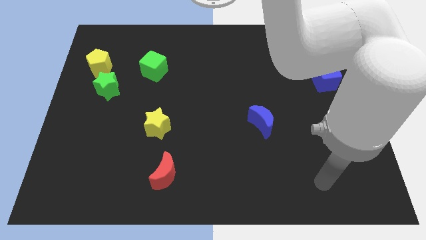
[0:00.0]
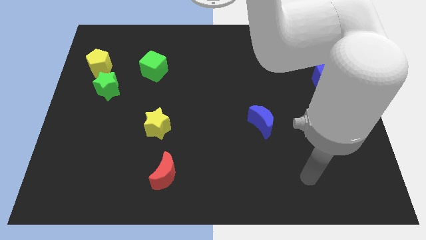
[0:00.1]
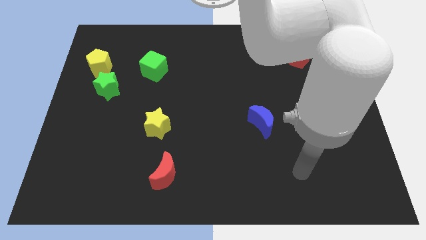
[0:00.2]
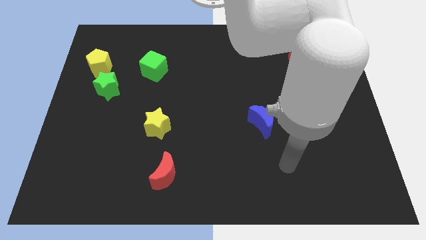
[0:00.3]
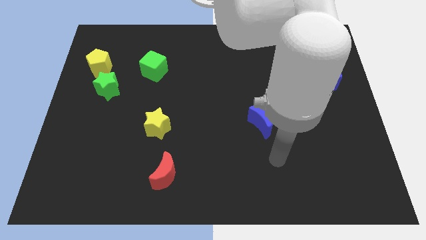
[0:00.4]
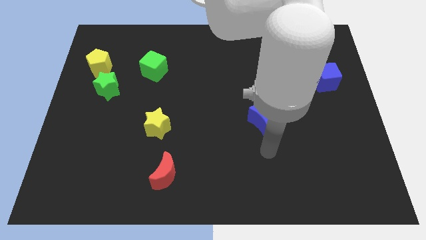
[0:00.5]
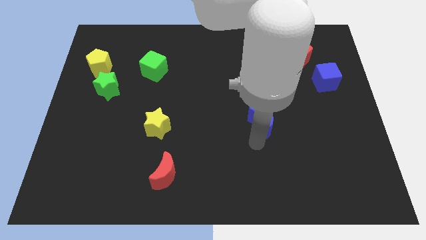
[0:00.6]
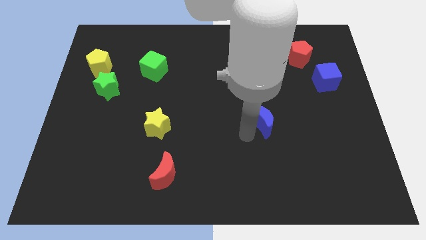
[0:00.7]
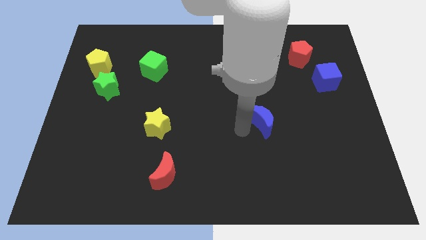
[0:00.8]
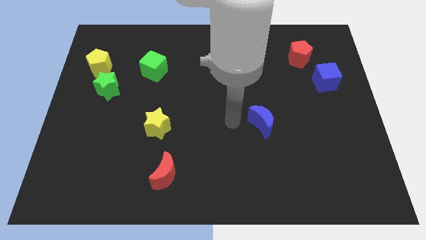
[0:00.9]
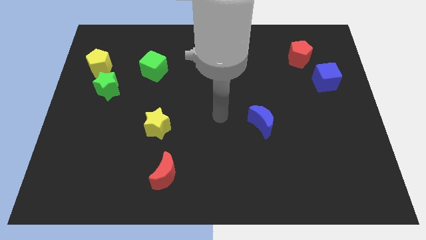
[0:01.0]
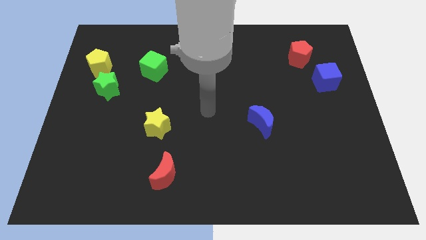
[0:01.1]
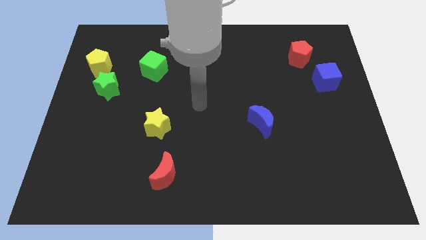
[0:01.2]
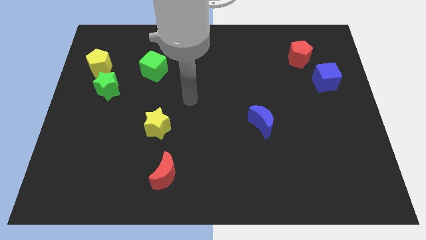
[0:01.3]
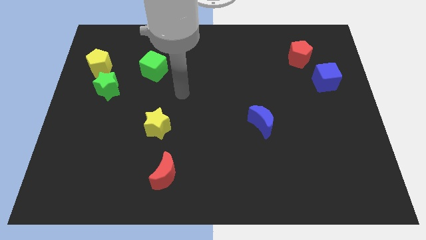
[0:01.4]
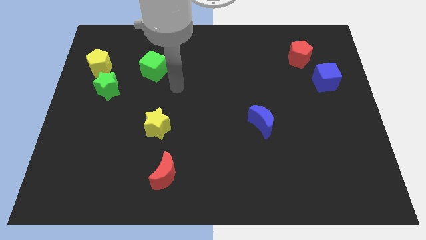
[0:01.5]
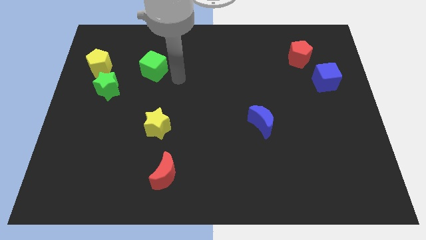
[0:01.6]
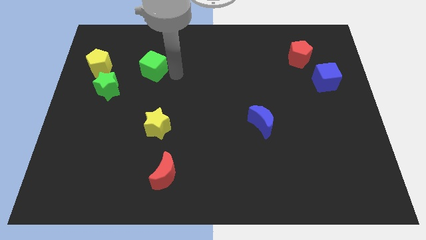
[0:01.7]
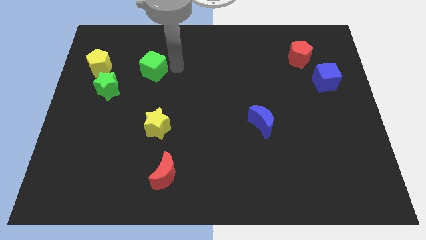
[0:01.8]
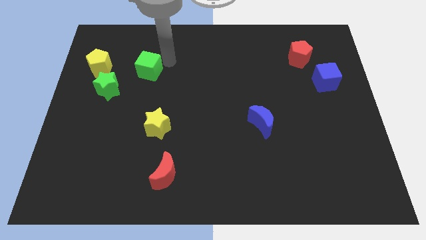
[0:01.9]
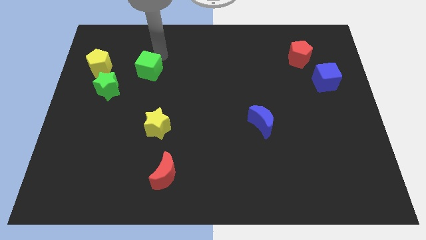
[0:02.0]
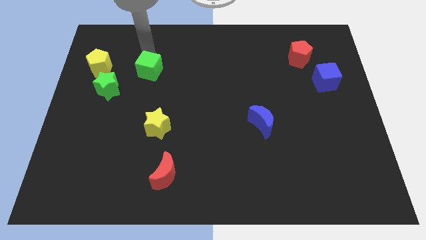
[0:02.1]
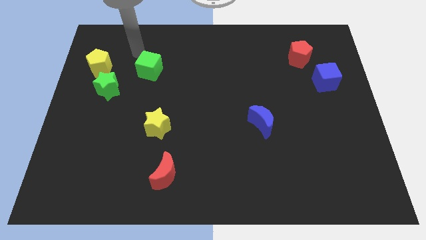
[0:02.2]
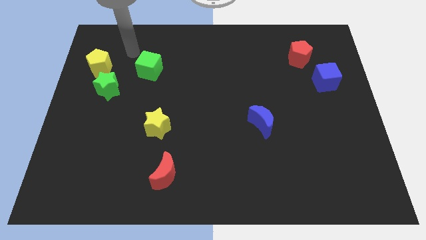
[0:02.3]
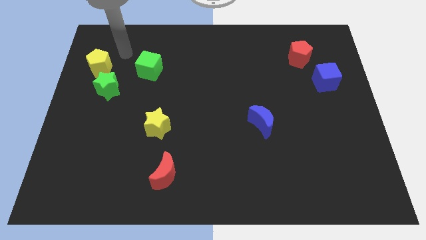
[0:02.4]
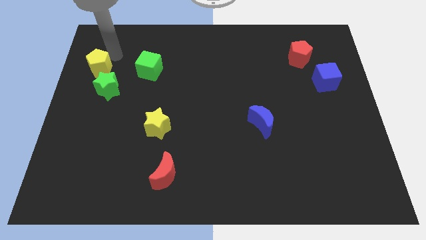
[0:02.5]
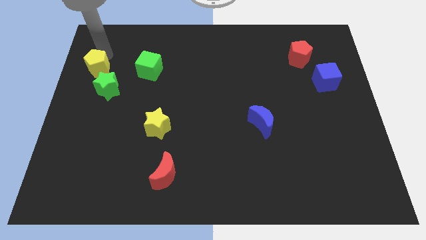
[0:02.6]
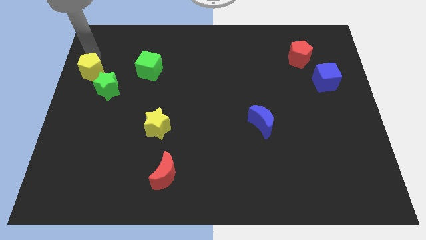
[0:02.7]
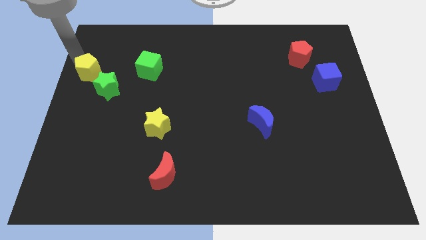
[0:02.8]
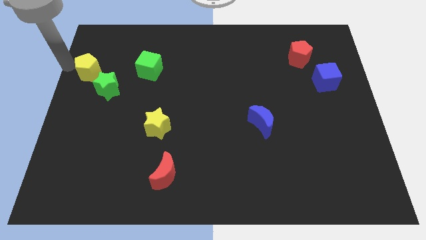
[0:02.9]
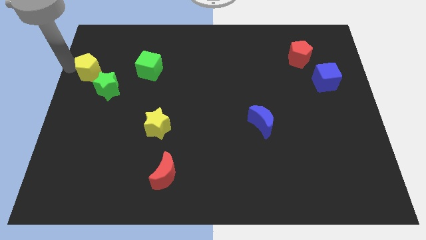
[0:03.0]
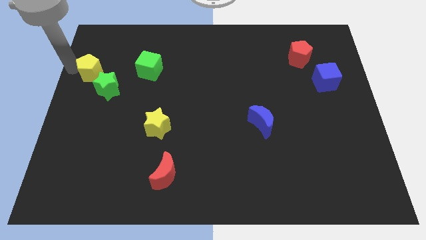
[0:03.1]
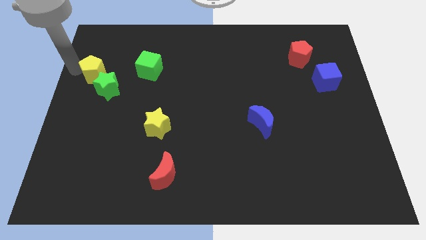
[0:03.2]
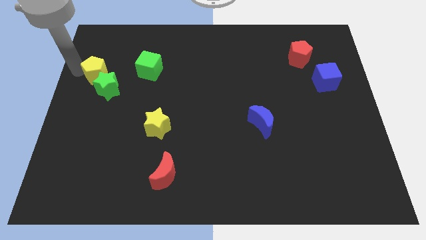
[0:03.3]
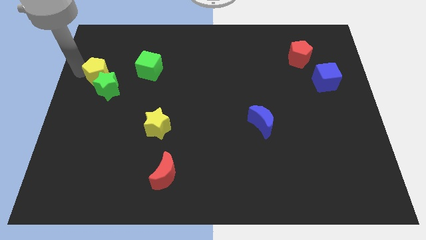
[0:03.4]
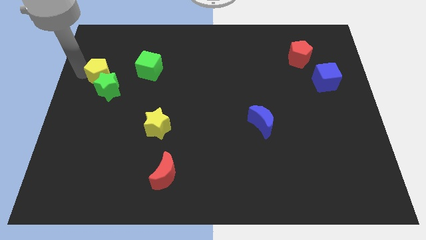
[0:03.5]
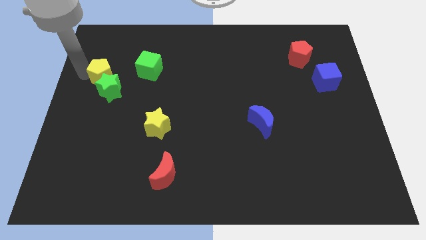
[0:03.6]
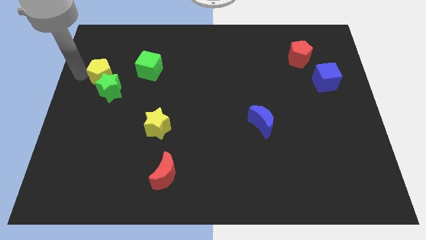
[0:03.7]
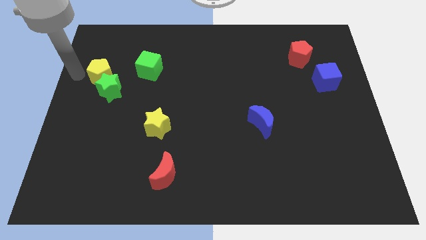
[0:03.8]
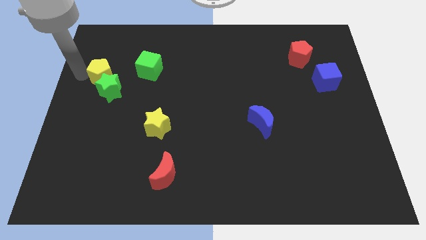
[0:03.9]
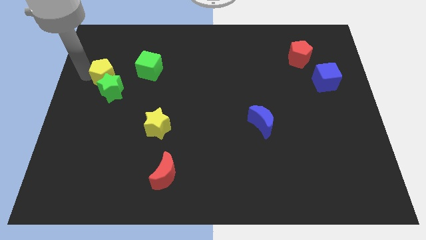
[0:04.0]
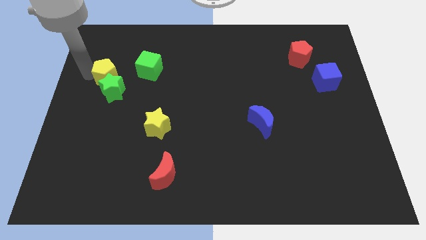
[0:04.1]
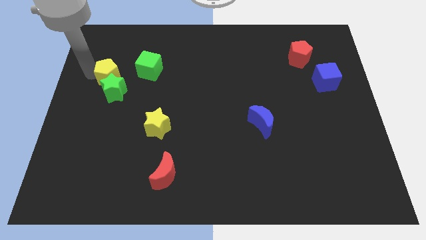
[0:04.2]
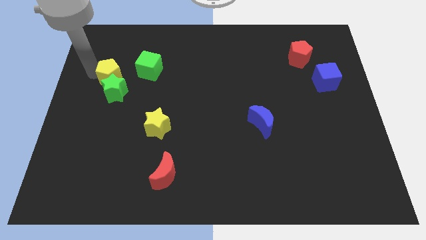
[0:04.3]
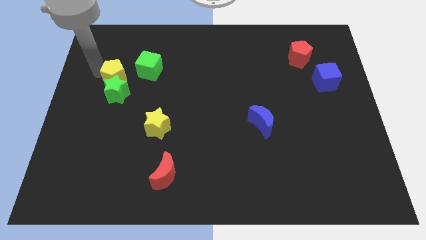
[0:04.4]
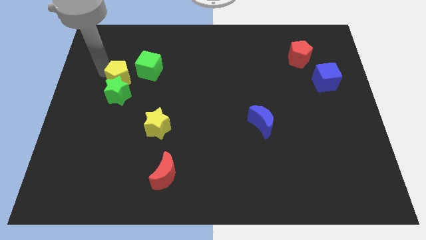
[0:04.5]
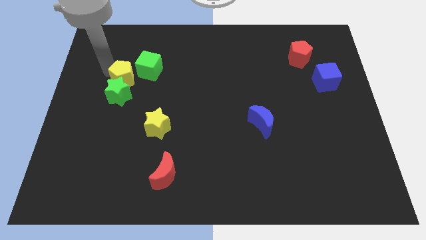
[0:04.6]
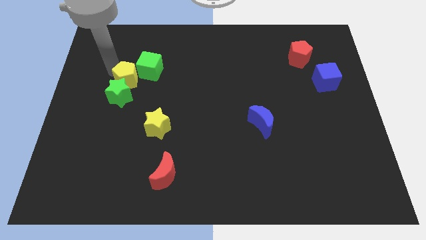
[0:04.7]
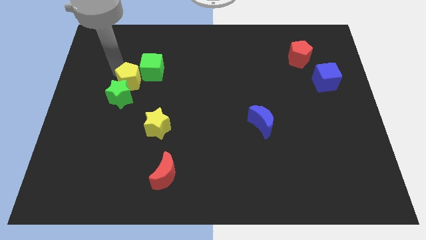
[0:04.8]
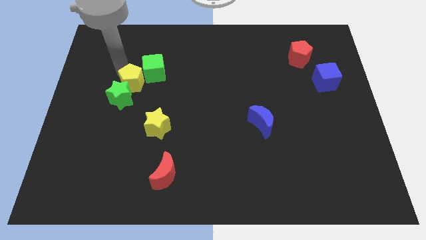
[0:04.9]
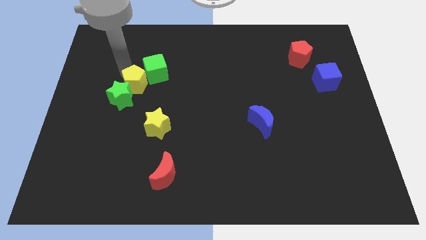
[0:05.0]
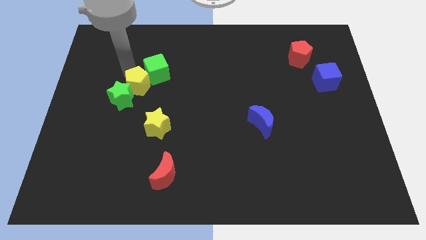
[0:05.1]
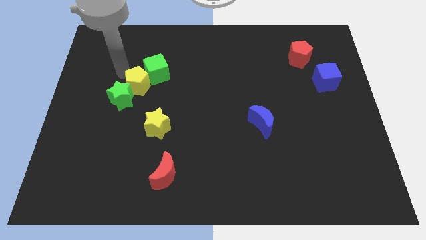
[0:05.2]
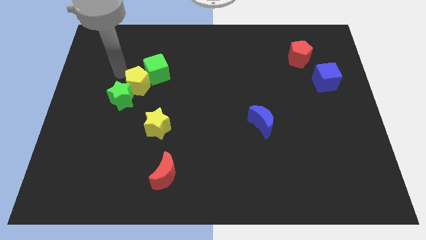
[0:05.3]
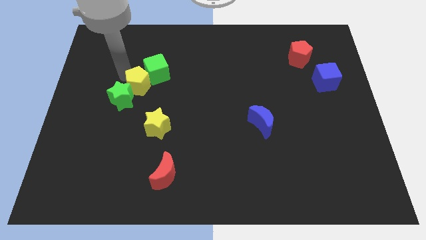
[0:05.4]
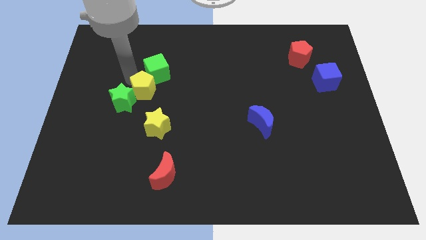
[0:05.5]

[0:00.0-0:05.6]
put the yellow pentagon to the right side of the green star

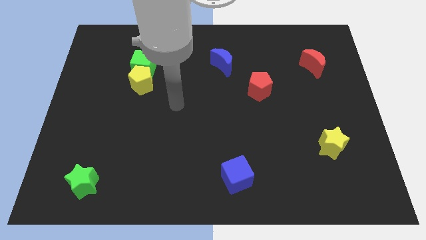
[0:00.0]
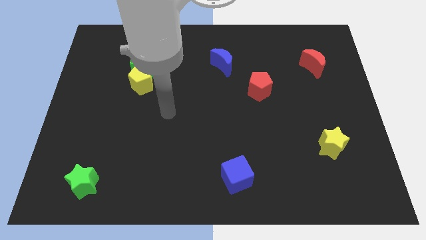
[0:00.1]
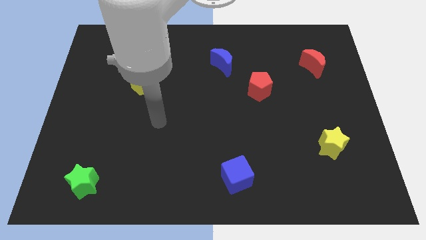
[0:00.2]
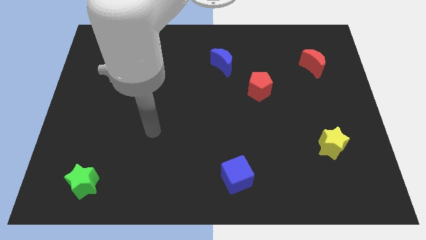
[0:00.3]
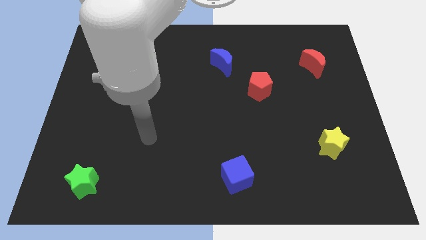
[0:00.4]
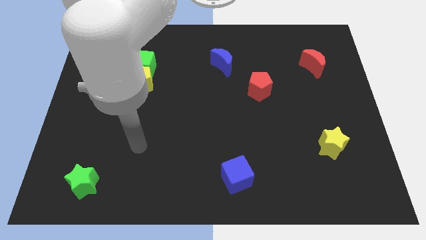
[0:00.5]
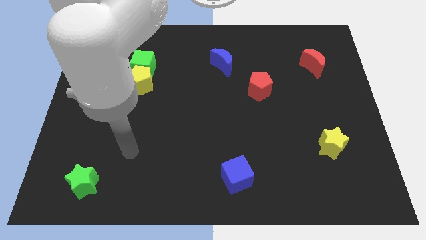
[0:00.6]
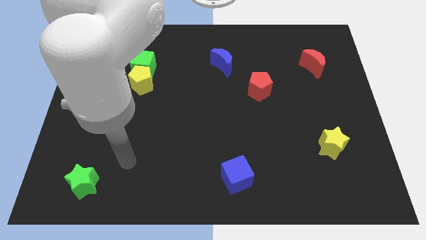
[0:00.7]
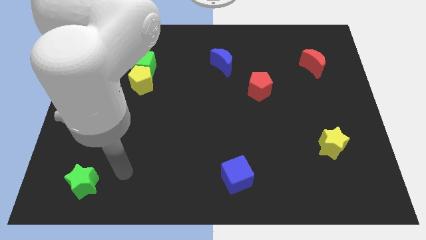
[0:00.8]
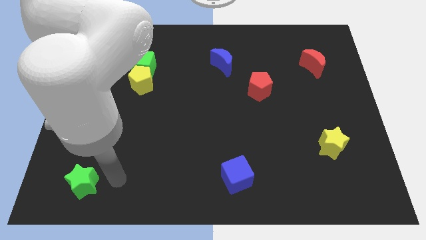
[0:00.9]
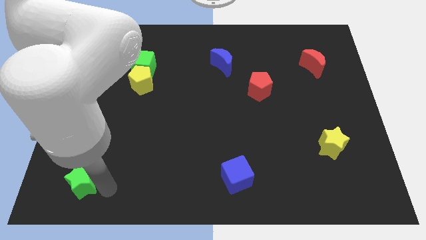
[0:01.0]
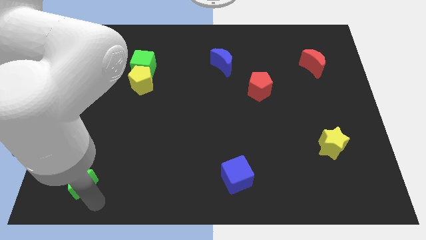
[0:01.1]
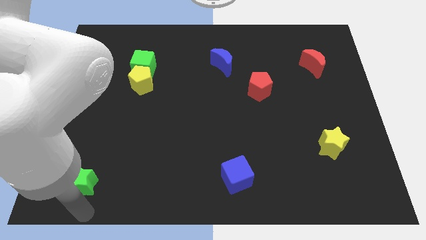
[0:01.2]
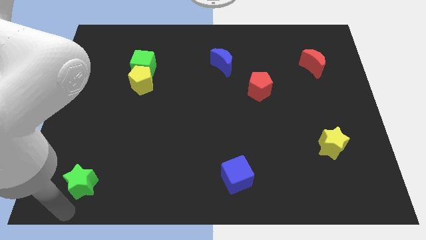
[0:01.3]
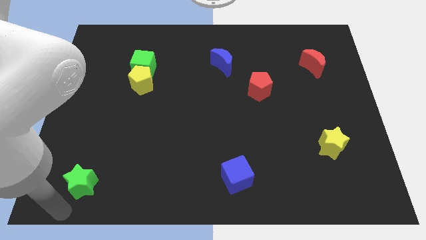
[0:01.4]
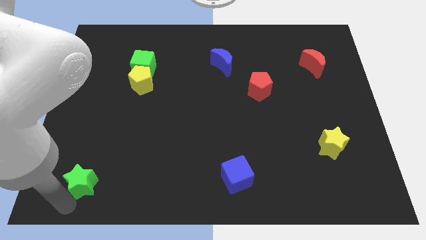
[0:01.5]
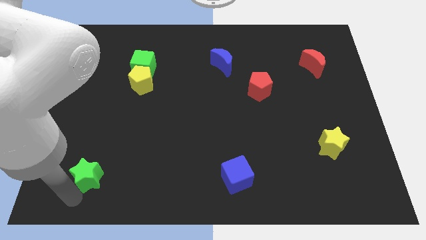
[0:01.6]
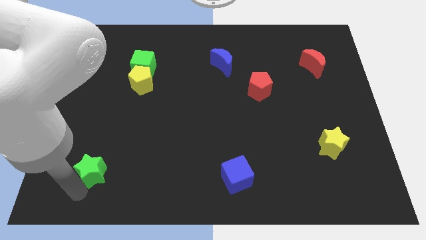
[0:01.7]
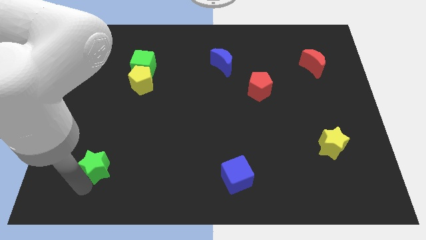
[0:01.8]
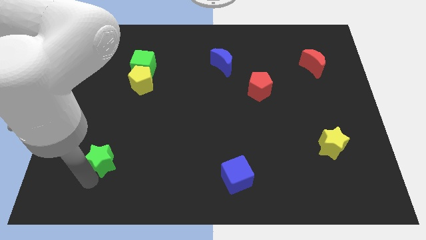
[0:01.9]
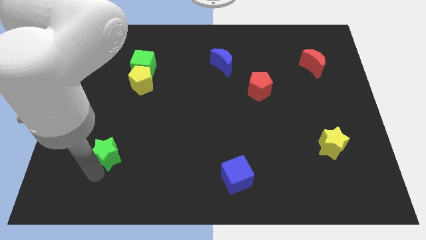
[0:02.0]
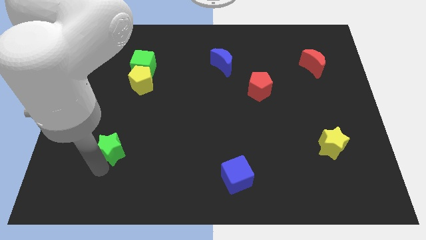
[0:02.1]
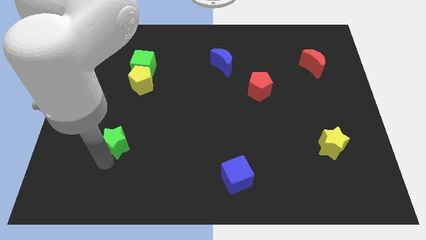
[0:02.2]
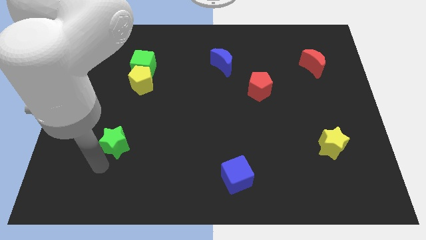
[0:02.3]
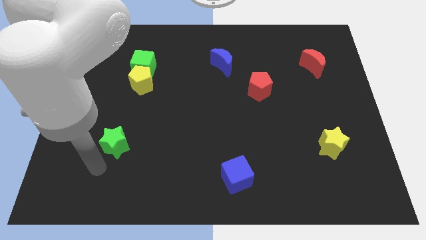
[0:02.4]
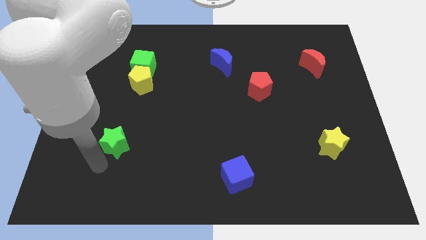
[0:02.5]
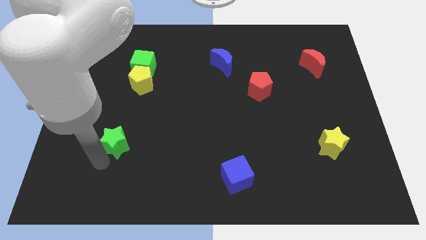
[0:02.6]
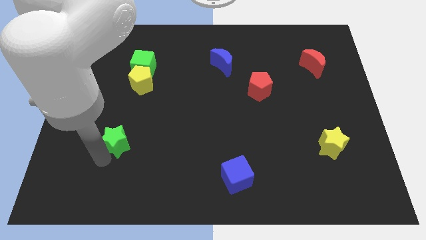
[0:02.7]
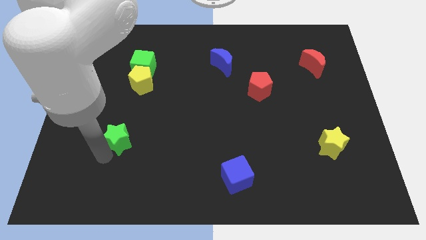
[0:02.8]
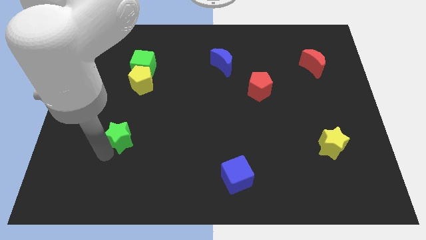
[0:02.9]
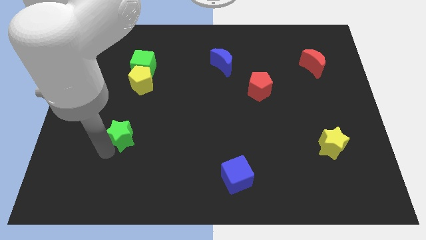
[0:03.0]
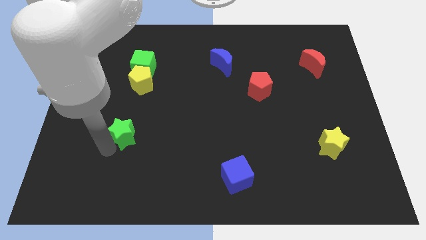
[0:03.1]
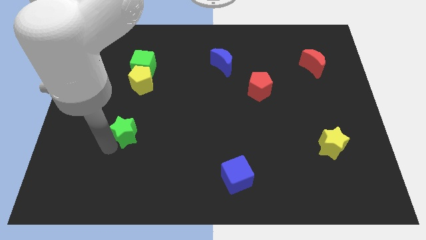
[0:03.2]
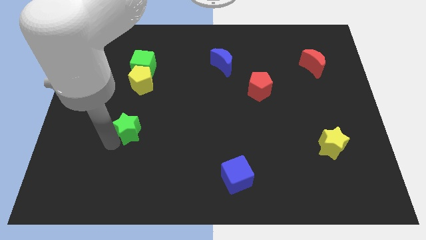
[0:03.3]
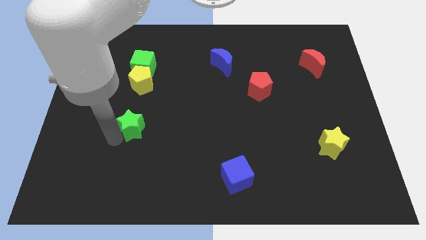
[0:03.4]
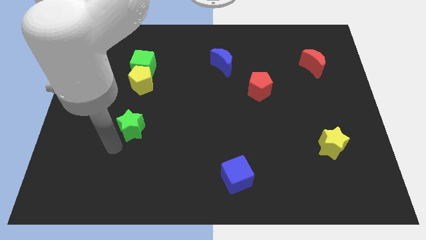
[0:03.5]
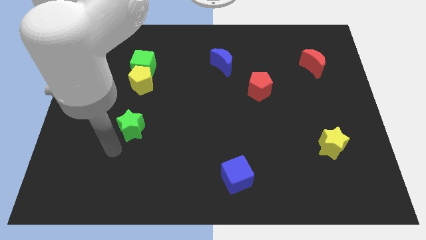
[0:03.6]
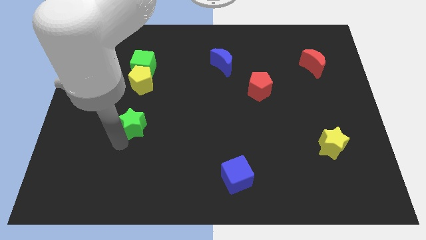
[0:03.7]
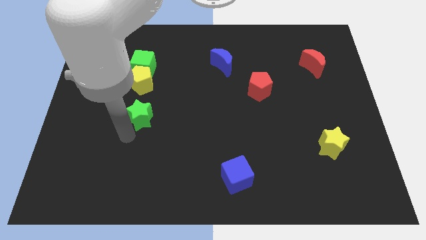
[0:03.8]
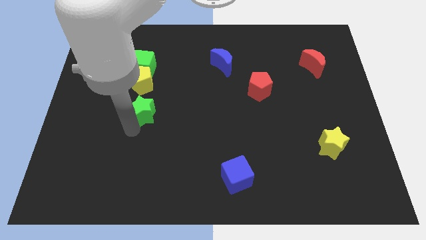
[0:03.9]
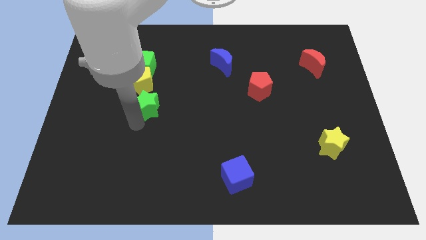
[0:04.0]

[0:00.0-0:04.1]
move the green star to the bottom right of the yellow pentagon
